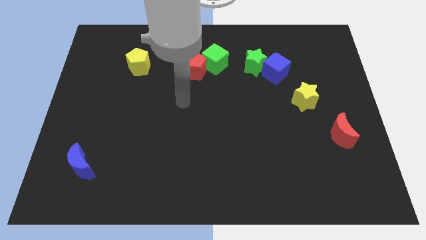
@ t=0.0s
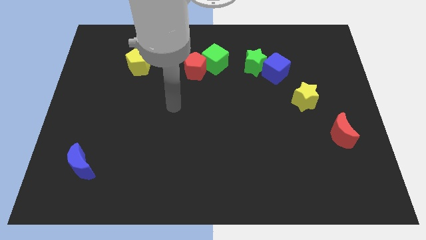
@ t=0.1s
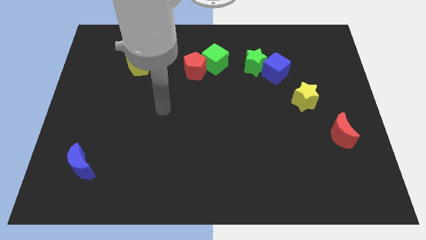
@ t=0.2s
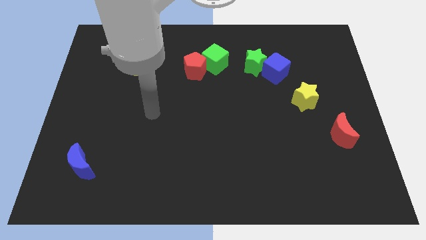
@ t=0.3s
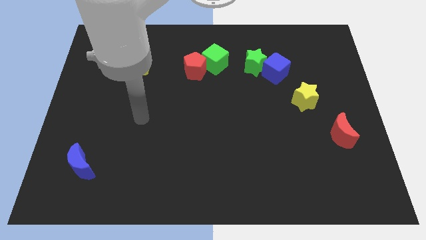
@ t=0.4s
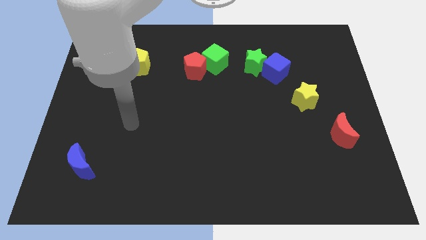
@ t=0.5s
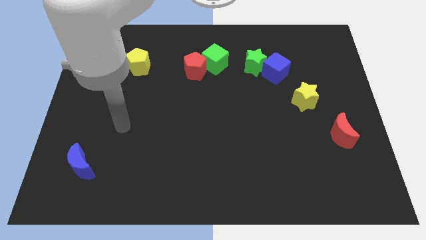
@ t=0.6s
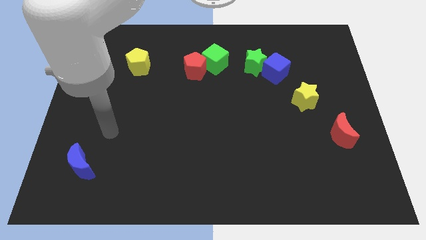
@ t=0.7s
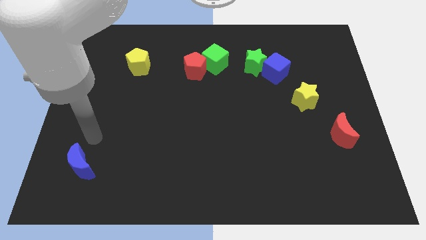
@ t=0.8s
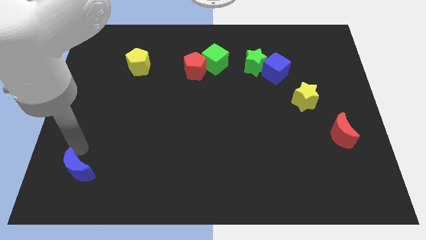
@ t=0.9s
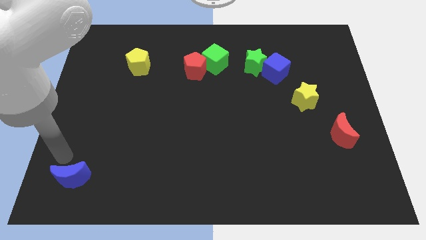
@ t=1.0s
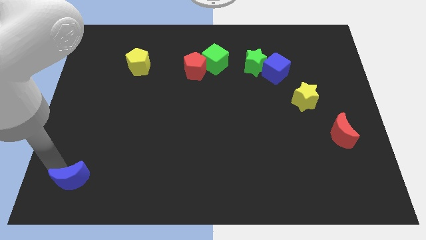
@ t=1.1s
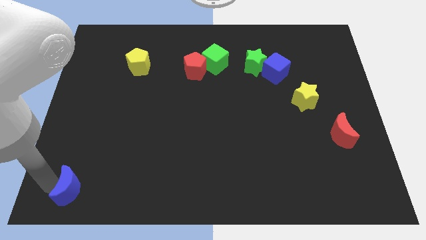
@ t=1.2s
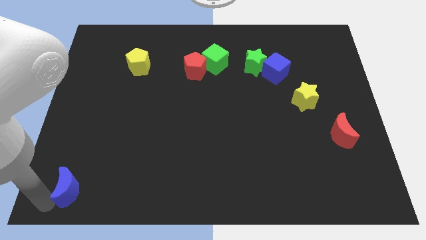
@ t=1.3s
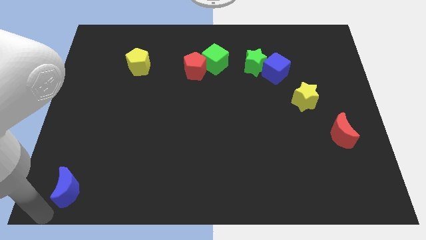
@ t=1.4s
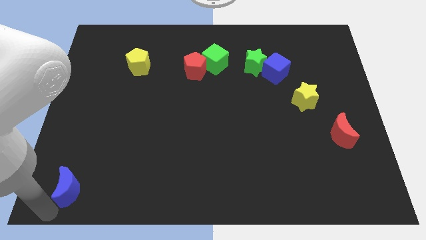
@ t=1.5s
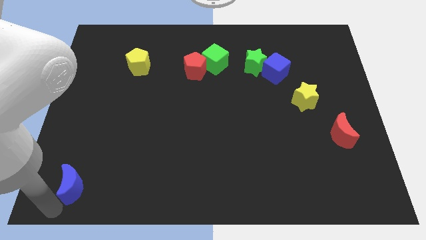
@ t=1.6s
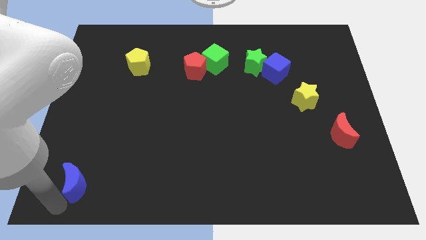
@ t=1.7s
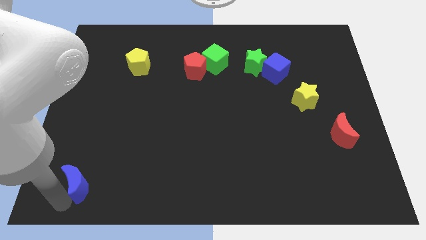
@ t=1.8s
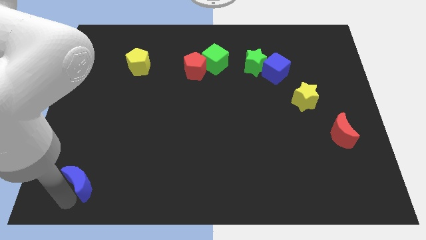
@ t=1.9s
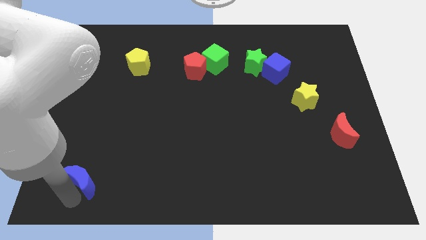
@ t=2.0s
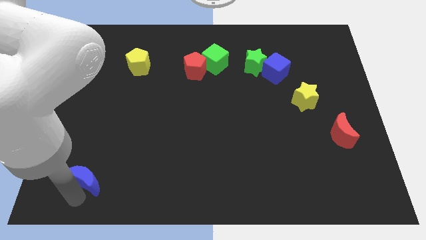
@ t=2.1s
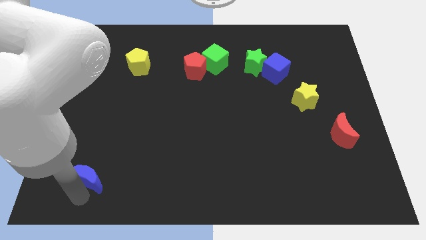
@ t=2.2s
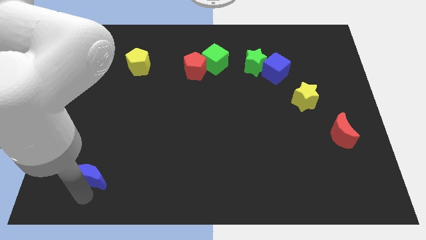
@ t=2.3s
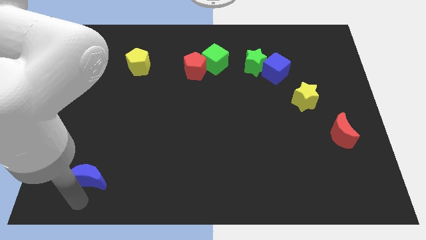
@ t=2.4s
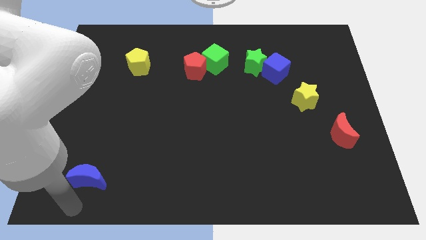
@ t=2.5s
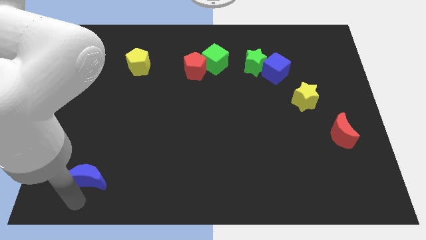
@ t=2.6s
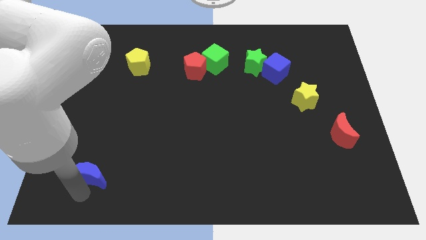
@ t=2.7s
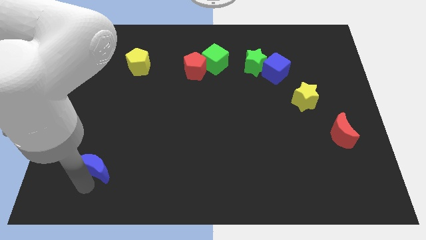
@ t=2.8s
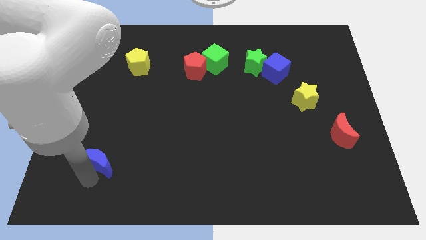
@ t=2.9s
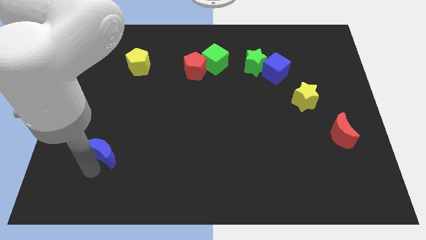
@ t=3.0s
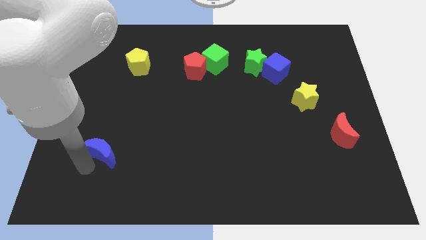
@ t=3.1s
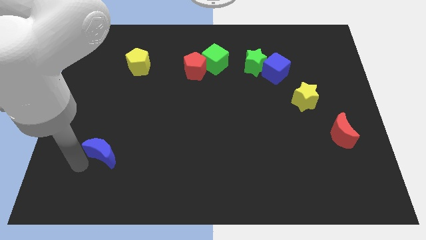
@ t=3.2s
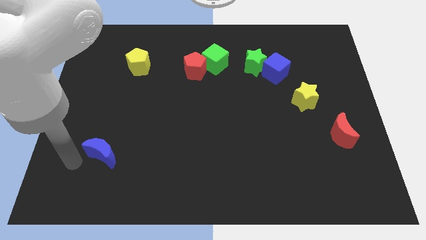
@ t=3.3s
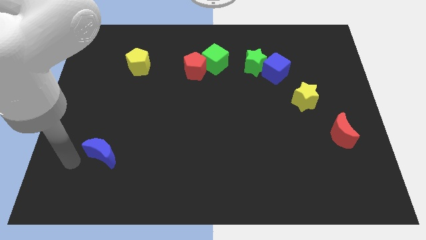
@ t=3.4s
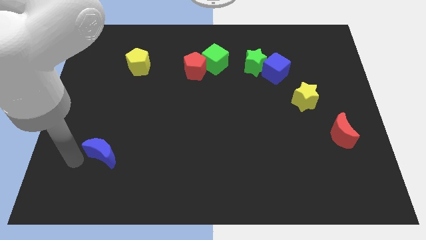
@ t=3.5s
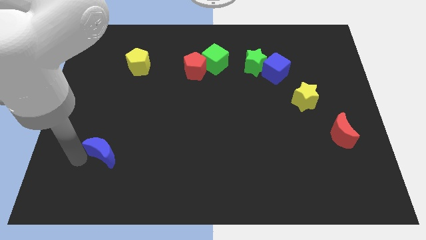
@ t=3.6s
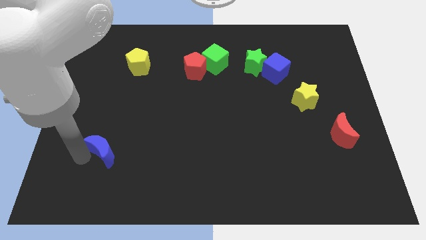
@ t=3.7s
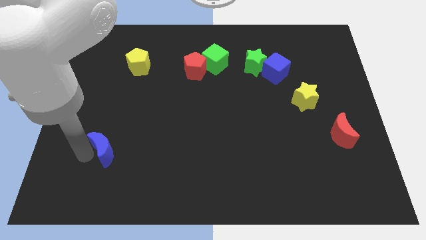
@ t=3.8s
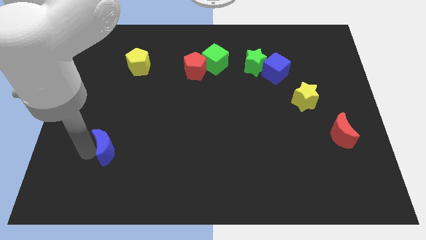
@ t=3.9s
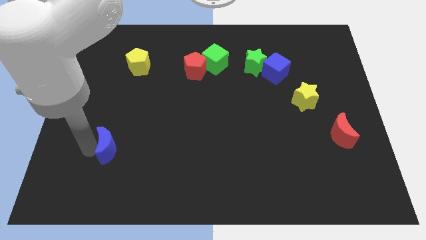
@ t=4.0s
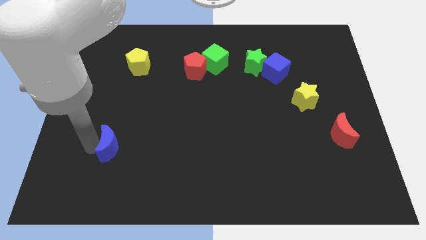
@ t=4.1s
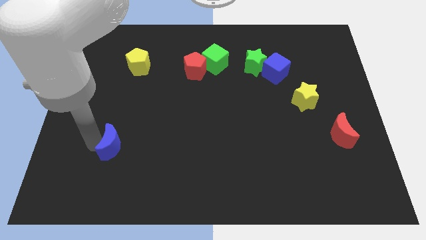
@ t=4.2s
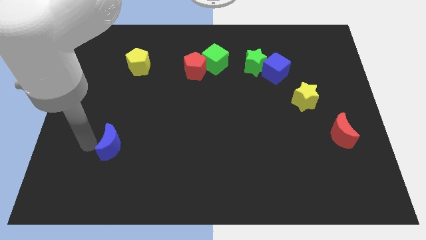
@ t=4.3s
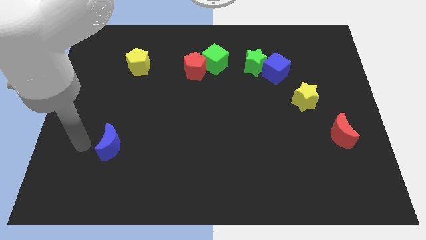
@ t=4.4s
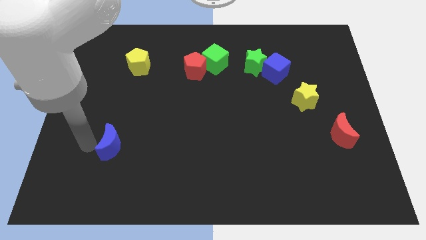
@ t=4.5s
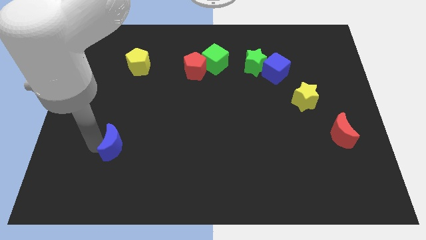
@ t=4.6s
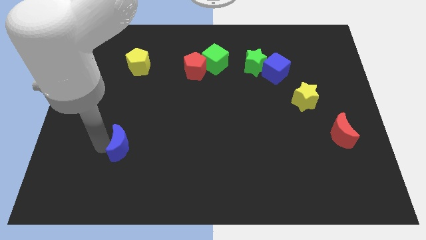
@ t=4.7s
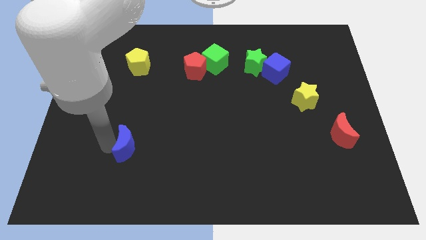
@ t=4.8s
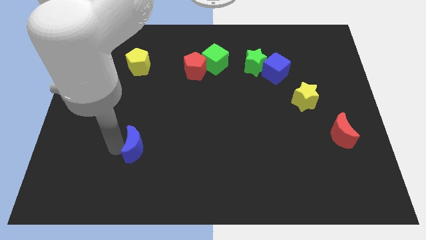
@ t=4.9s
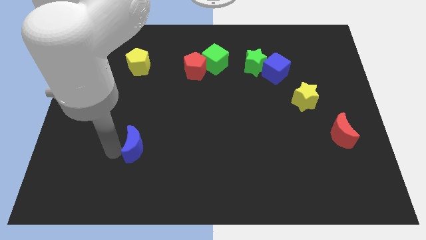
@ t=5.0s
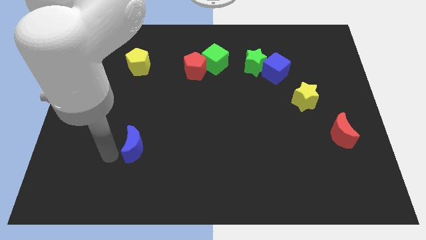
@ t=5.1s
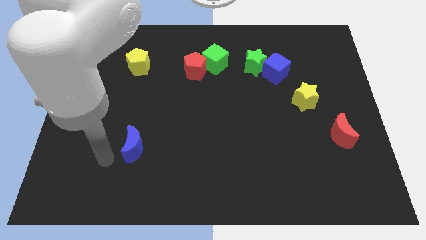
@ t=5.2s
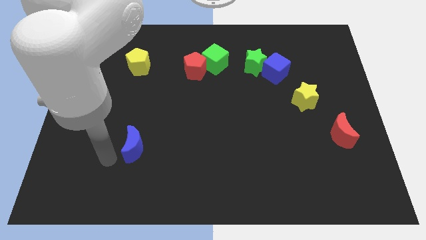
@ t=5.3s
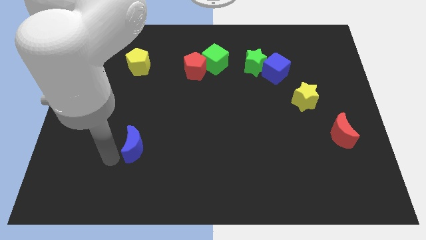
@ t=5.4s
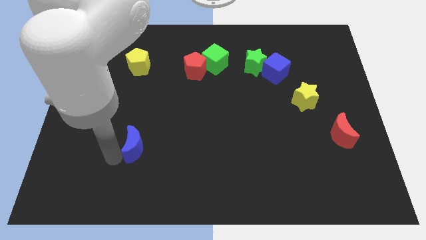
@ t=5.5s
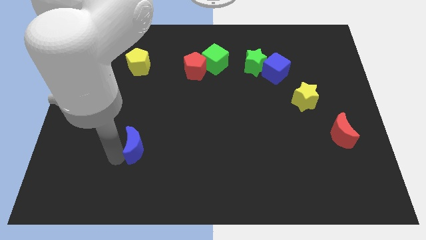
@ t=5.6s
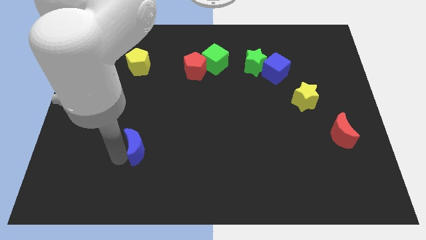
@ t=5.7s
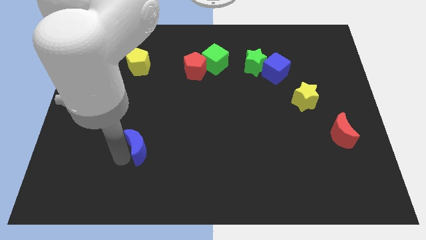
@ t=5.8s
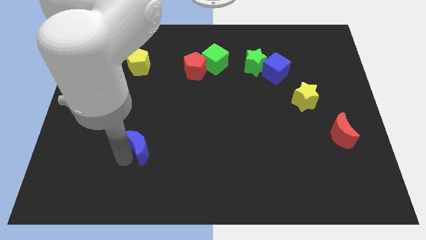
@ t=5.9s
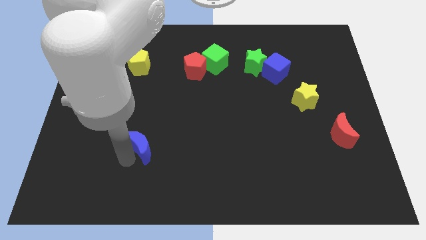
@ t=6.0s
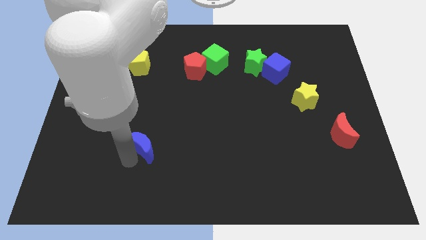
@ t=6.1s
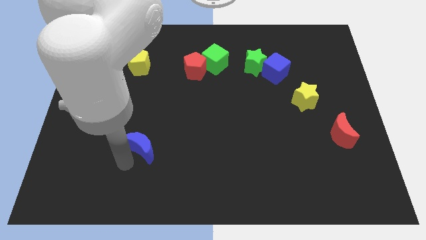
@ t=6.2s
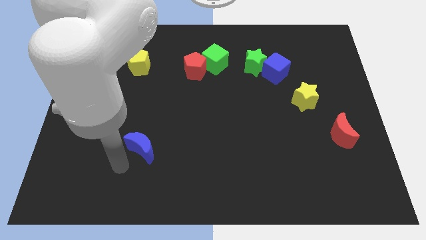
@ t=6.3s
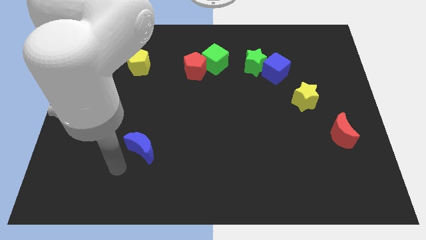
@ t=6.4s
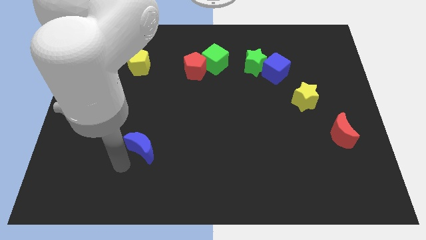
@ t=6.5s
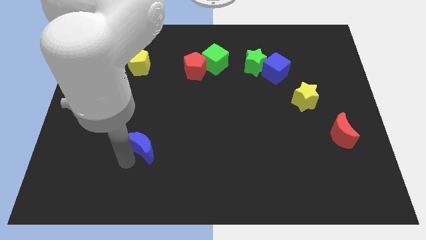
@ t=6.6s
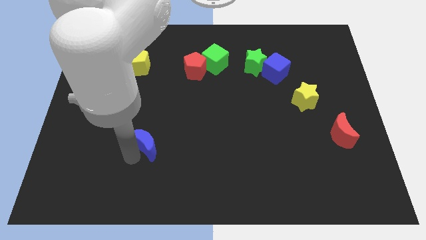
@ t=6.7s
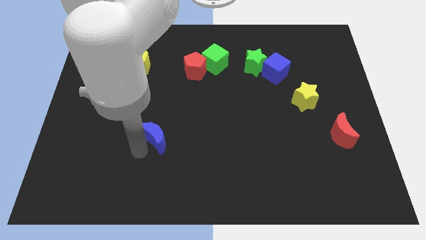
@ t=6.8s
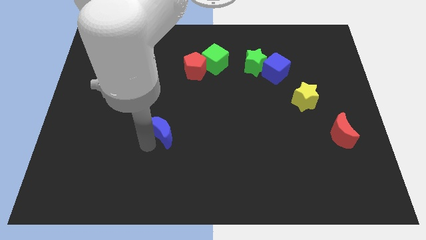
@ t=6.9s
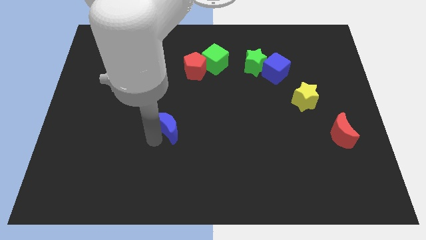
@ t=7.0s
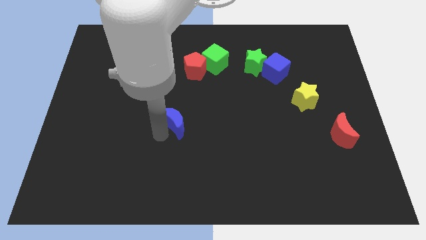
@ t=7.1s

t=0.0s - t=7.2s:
push the blue moon to the middle
